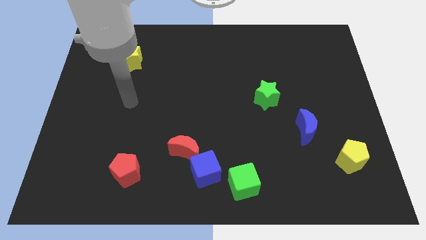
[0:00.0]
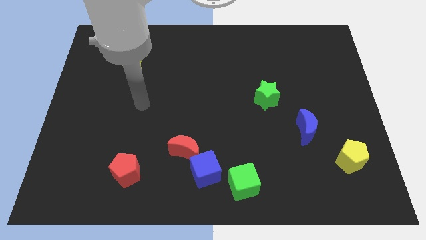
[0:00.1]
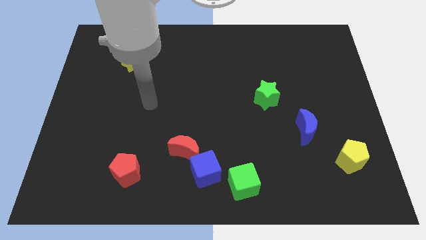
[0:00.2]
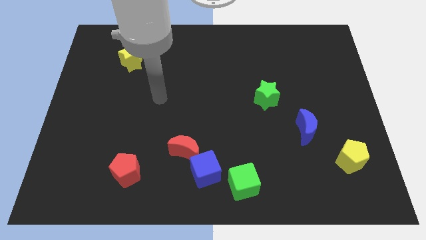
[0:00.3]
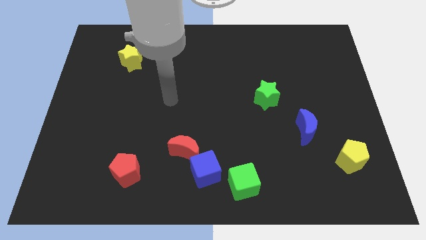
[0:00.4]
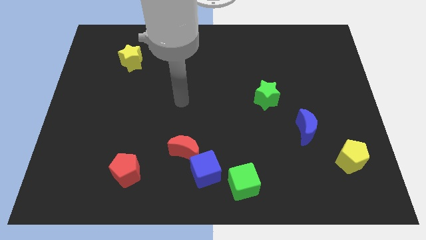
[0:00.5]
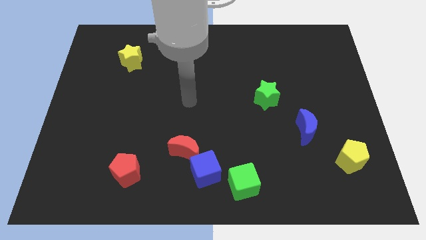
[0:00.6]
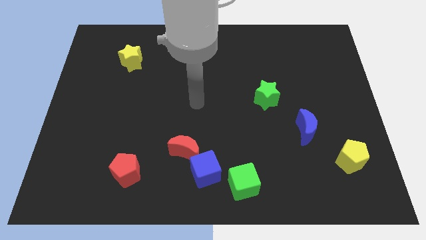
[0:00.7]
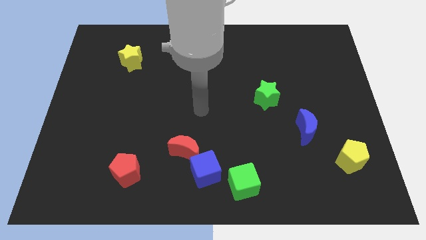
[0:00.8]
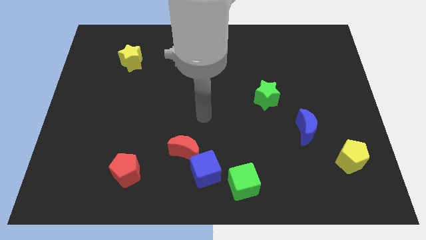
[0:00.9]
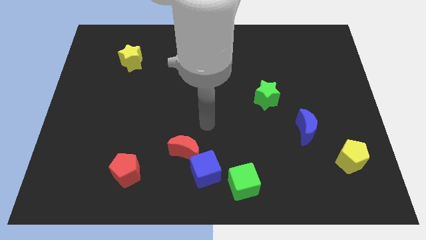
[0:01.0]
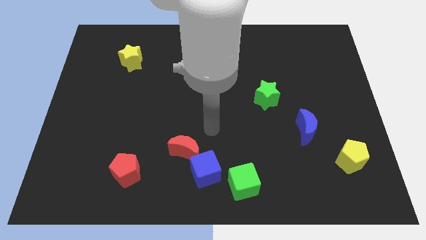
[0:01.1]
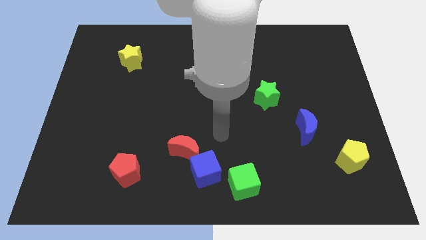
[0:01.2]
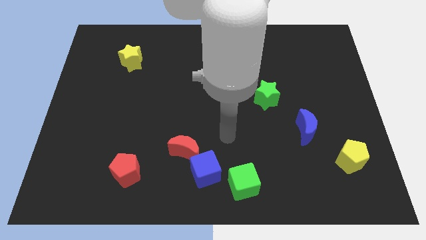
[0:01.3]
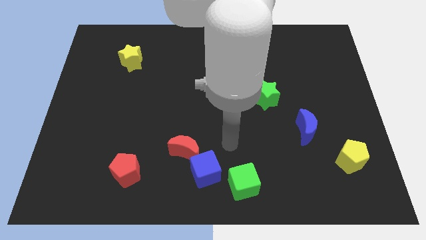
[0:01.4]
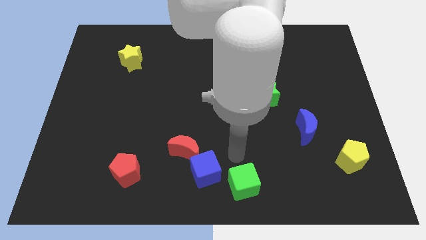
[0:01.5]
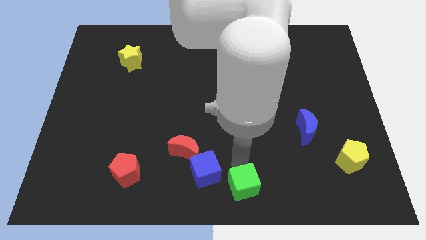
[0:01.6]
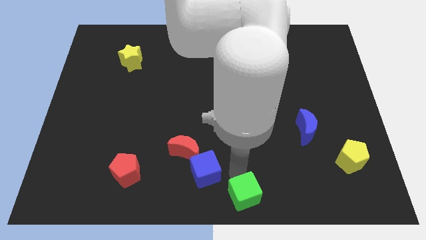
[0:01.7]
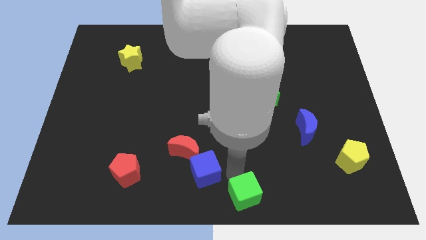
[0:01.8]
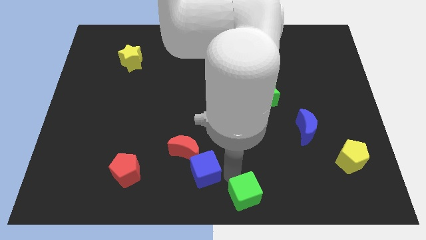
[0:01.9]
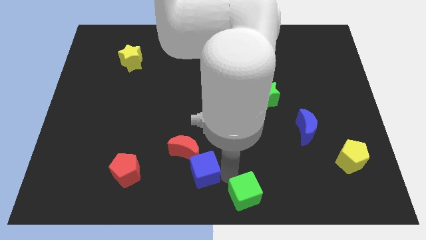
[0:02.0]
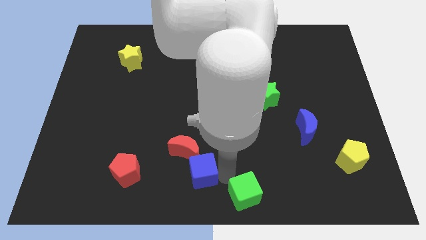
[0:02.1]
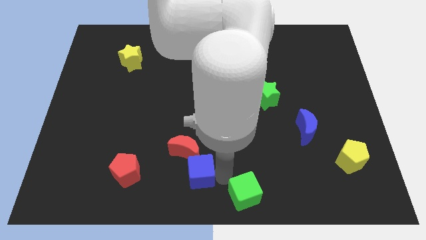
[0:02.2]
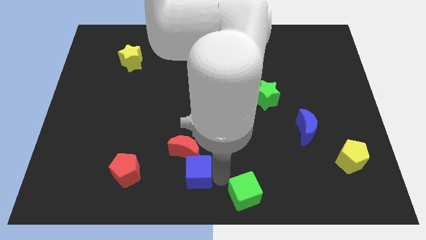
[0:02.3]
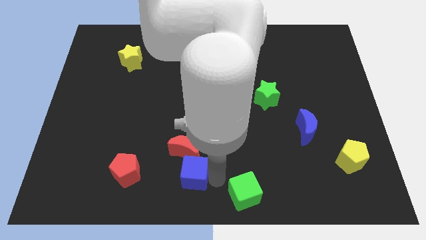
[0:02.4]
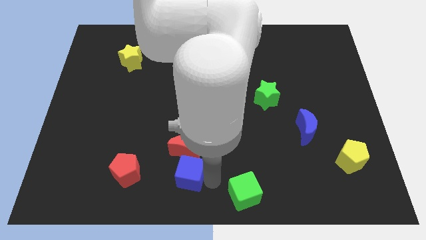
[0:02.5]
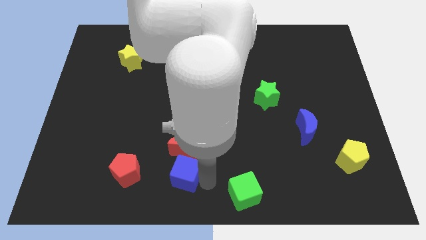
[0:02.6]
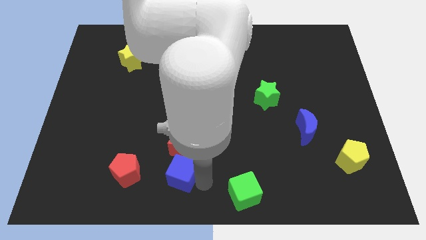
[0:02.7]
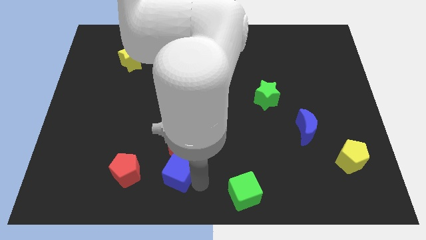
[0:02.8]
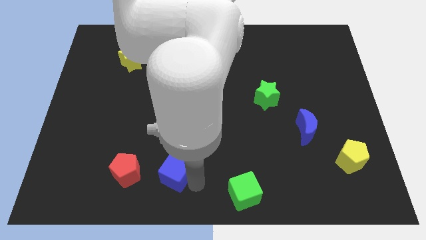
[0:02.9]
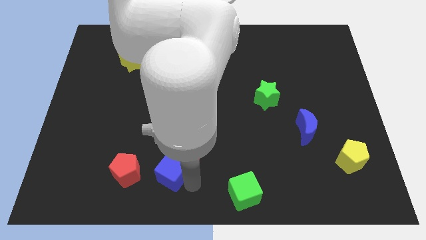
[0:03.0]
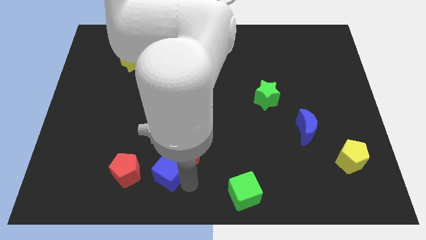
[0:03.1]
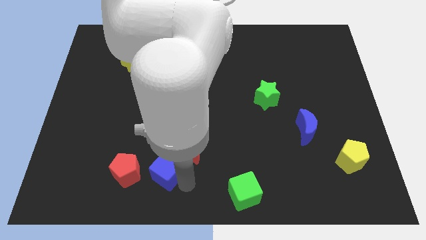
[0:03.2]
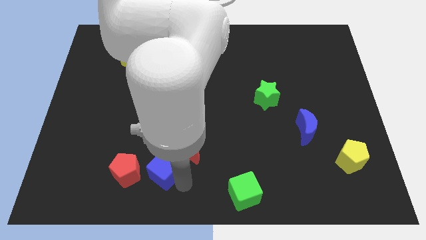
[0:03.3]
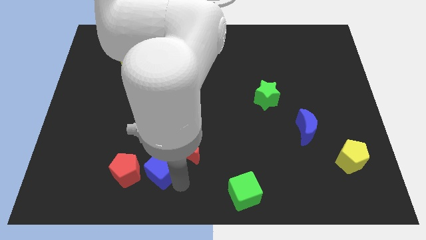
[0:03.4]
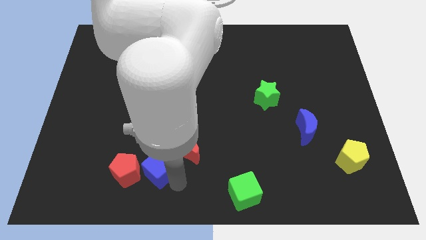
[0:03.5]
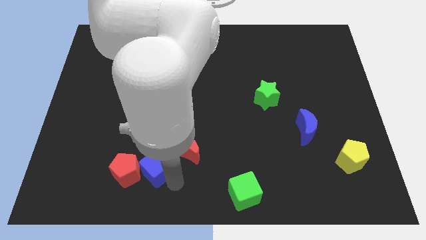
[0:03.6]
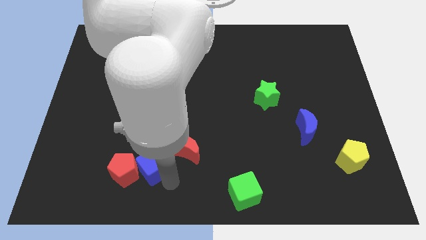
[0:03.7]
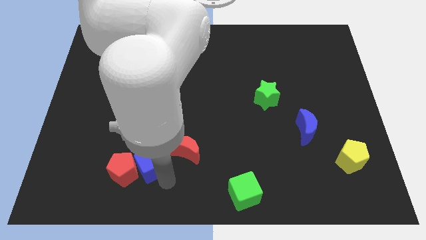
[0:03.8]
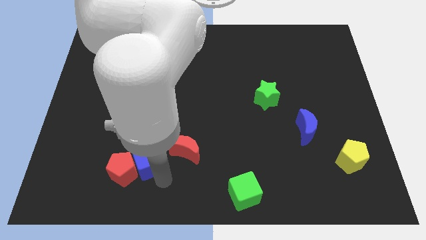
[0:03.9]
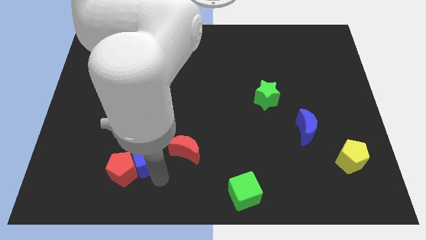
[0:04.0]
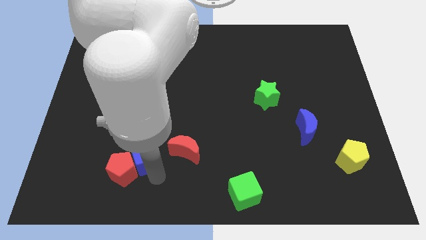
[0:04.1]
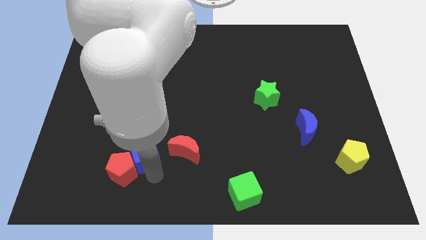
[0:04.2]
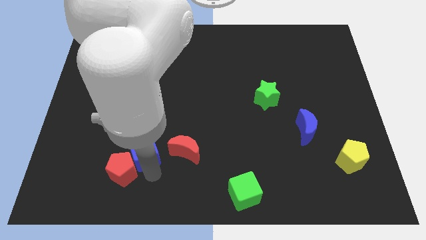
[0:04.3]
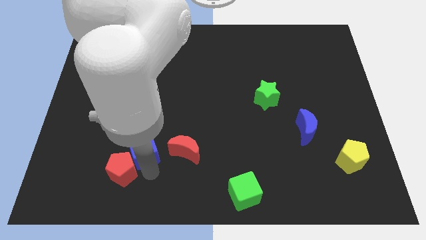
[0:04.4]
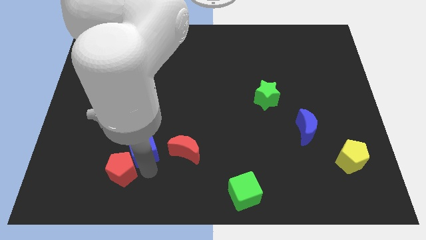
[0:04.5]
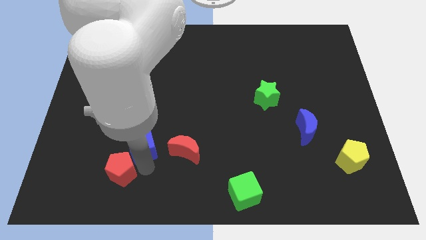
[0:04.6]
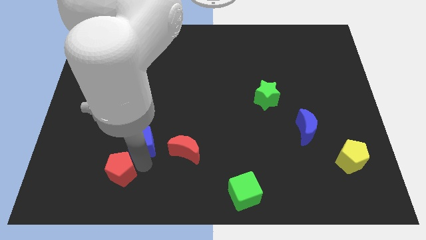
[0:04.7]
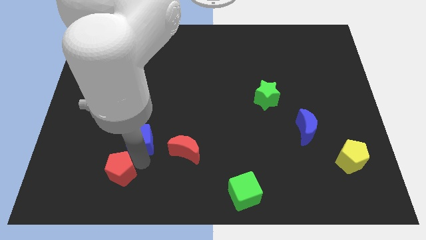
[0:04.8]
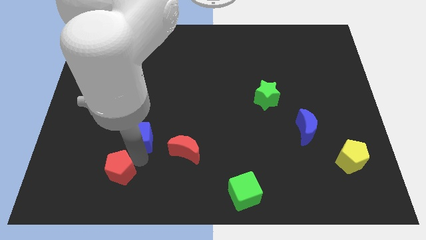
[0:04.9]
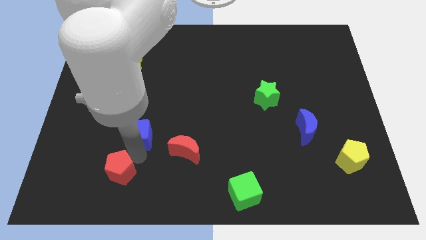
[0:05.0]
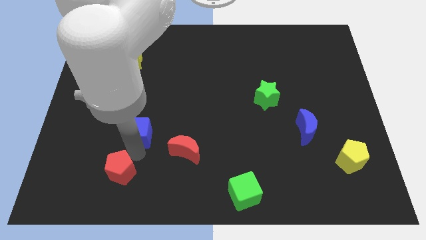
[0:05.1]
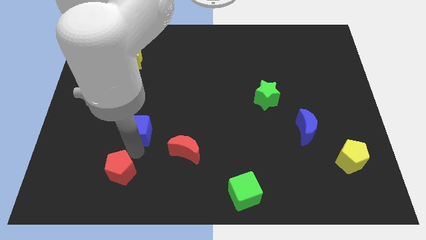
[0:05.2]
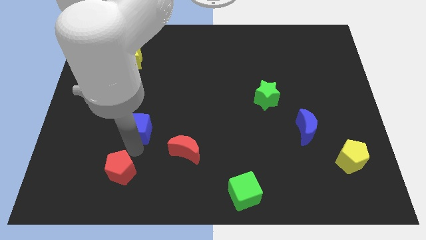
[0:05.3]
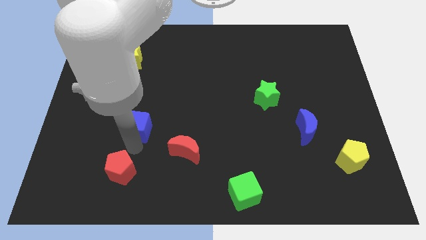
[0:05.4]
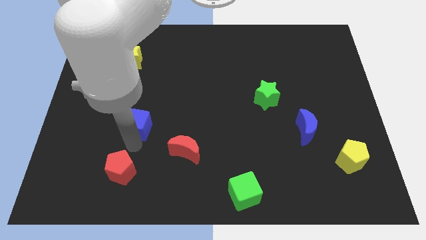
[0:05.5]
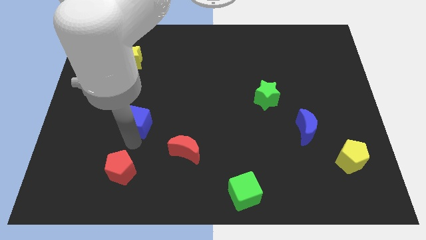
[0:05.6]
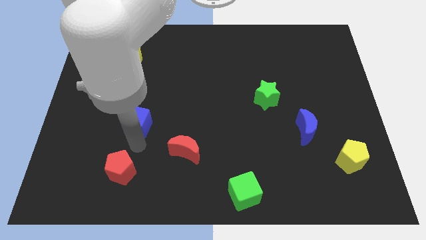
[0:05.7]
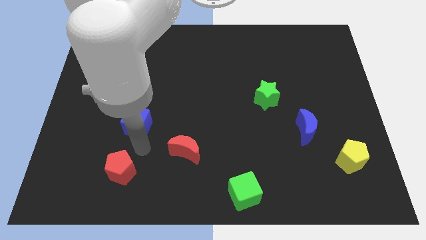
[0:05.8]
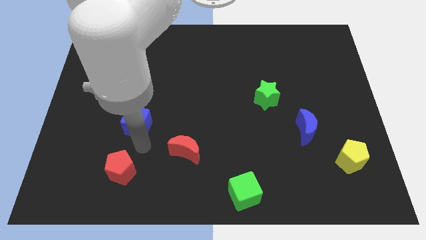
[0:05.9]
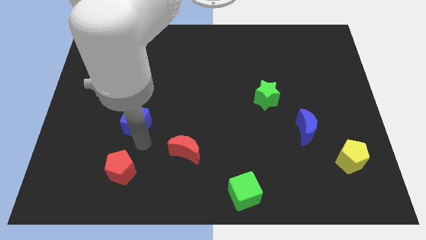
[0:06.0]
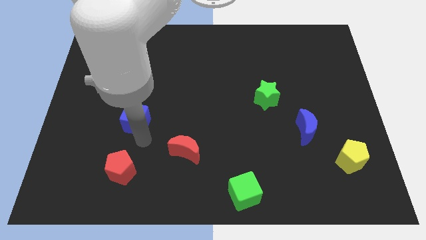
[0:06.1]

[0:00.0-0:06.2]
move the blue cube up and left diagonally

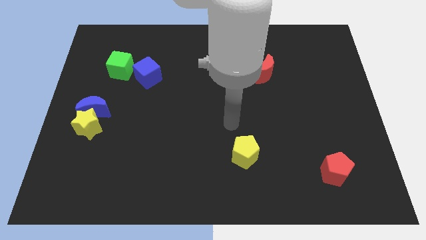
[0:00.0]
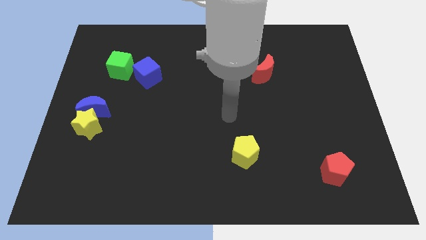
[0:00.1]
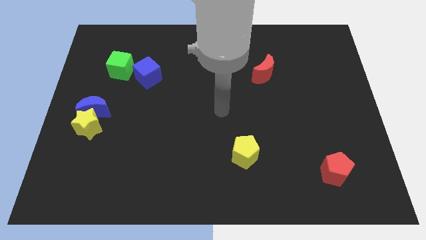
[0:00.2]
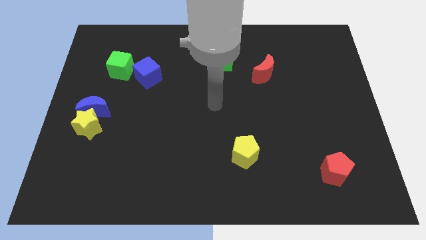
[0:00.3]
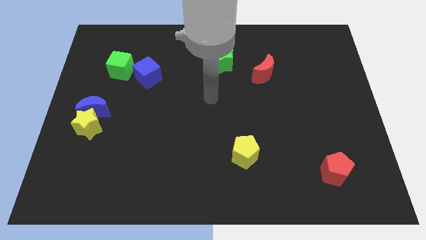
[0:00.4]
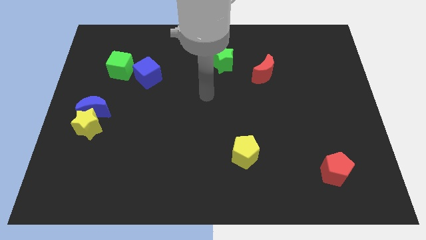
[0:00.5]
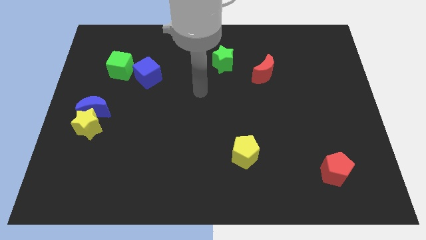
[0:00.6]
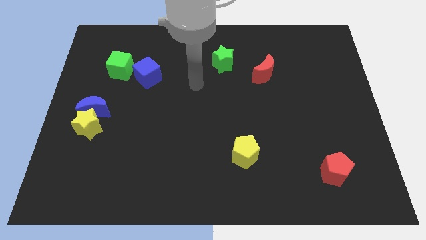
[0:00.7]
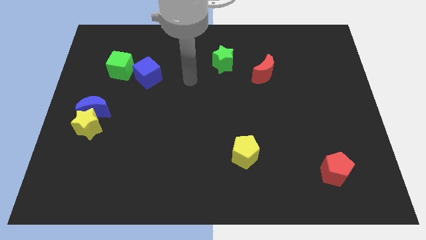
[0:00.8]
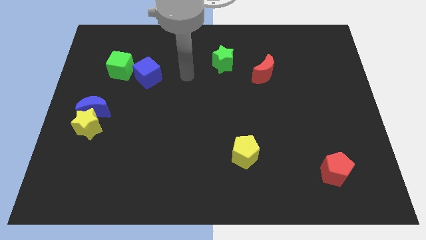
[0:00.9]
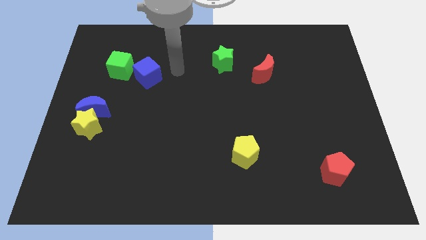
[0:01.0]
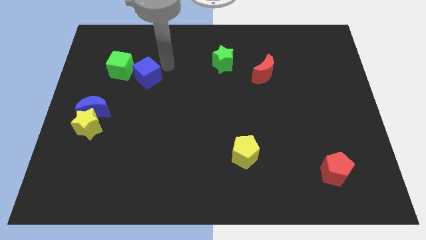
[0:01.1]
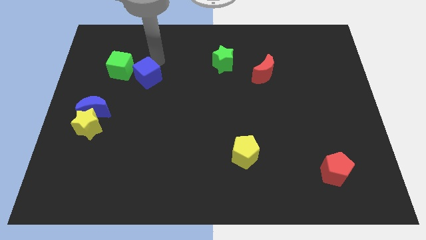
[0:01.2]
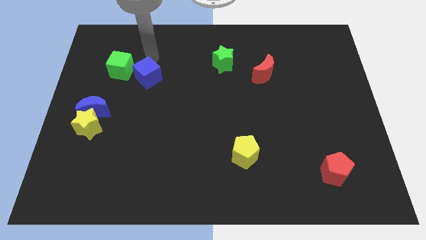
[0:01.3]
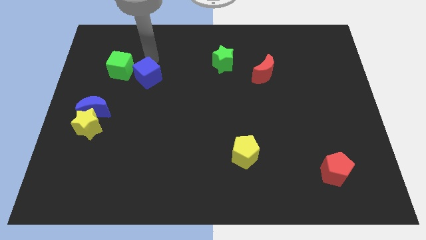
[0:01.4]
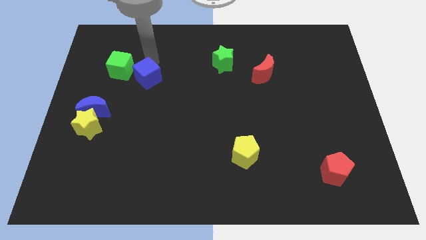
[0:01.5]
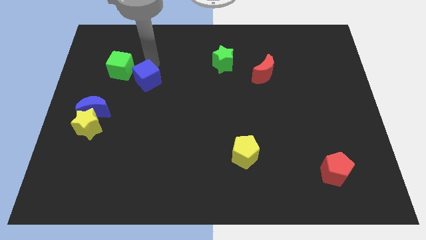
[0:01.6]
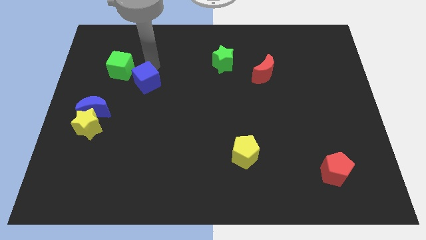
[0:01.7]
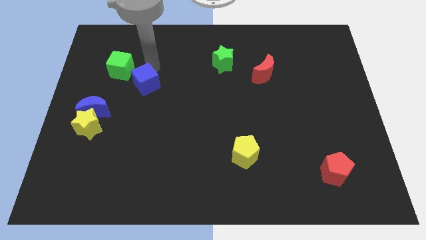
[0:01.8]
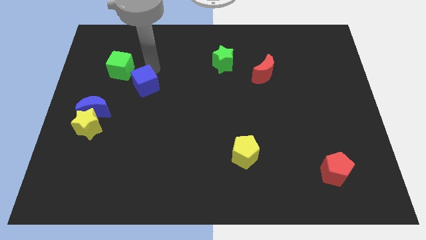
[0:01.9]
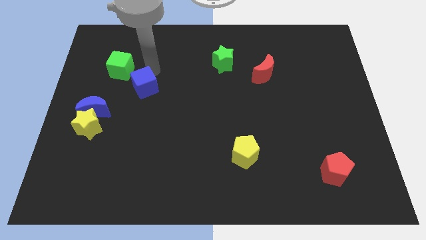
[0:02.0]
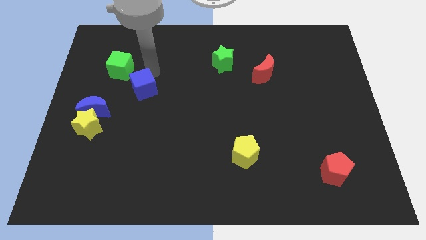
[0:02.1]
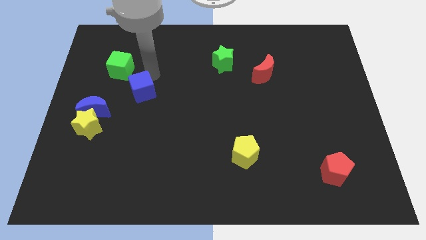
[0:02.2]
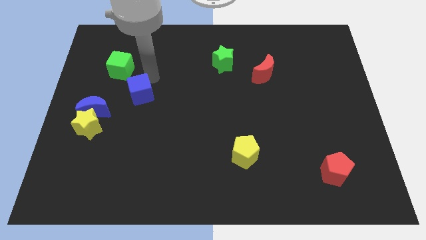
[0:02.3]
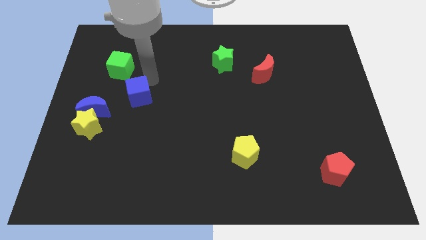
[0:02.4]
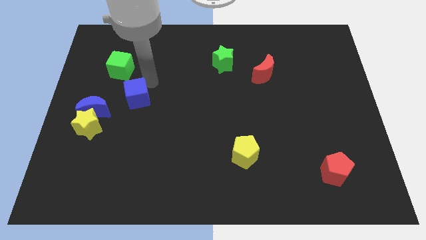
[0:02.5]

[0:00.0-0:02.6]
slide the blue cube a bit down
